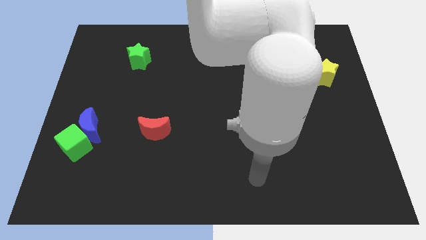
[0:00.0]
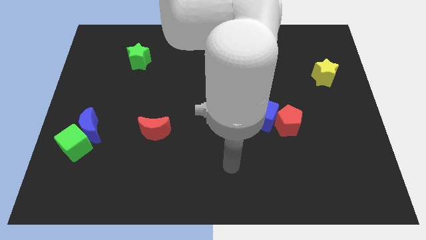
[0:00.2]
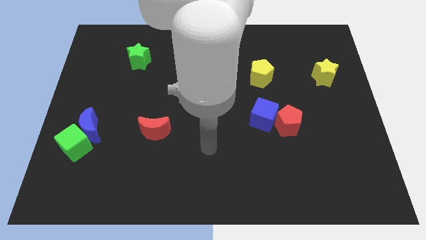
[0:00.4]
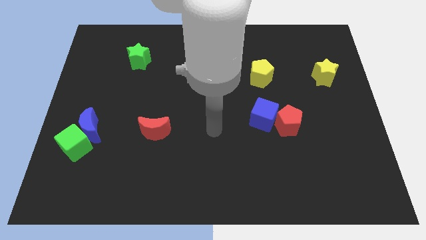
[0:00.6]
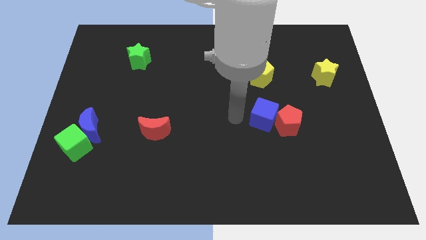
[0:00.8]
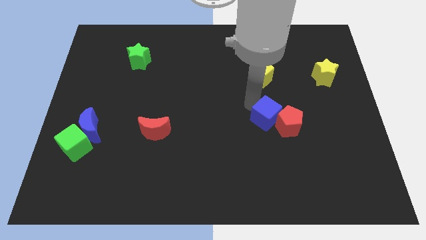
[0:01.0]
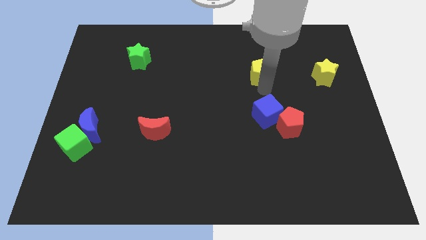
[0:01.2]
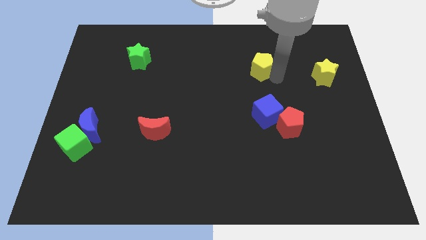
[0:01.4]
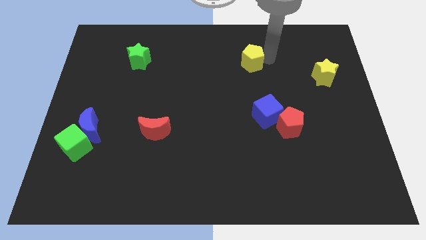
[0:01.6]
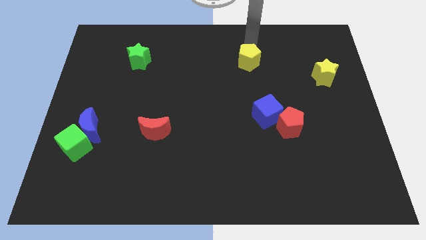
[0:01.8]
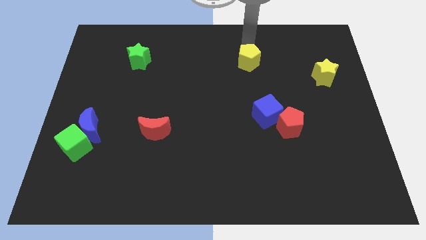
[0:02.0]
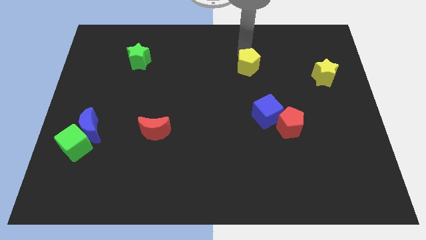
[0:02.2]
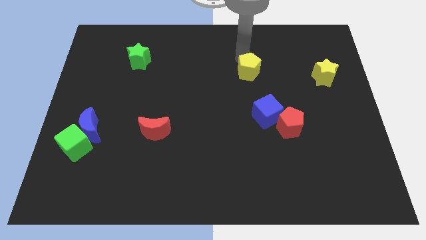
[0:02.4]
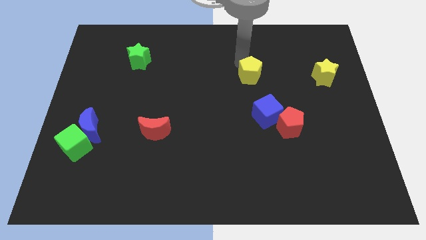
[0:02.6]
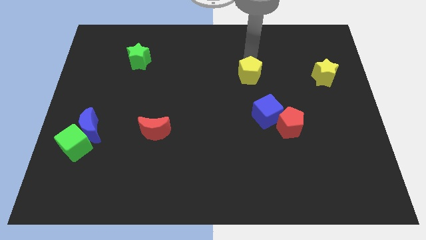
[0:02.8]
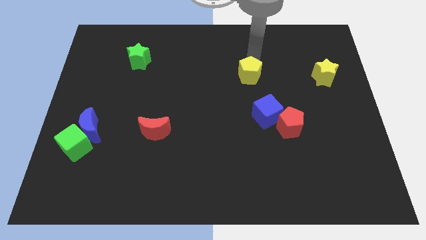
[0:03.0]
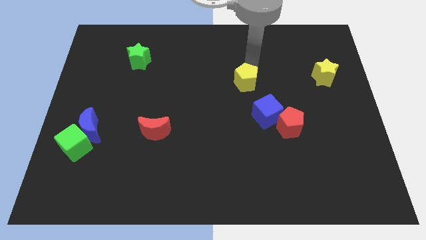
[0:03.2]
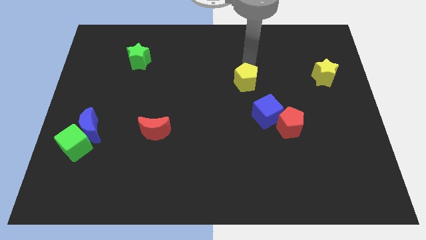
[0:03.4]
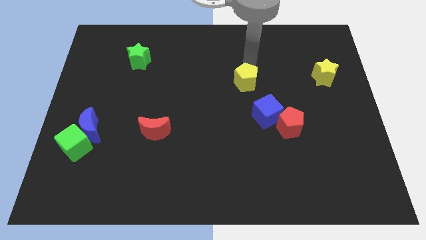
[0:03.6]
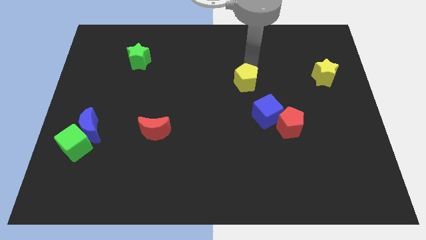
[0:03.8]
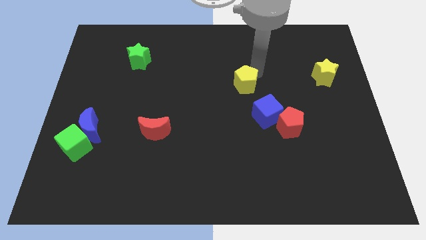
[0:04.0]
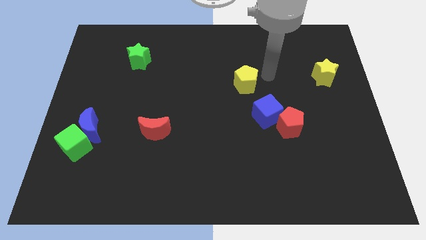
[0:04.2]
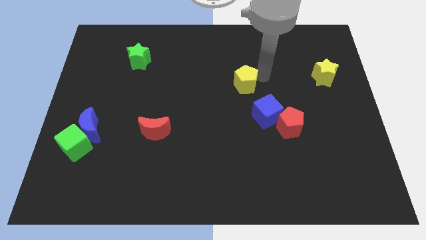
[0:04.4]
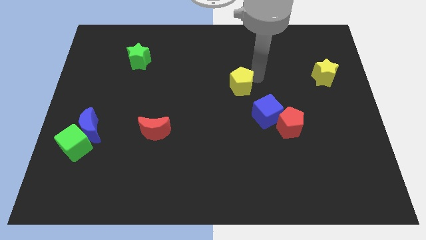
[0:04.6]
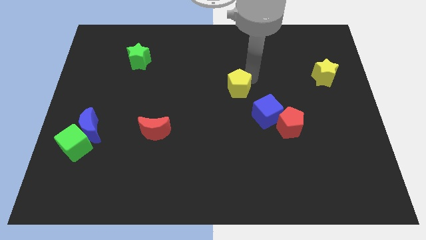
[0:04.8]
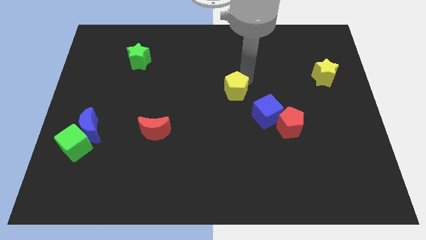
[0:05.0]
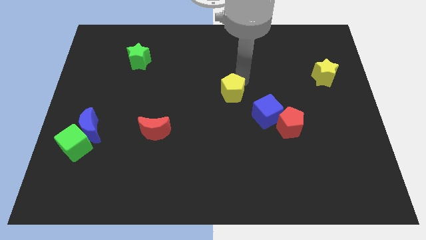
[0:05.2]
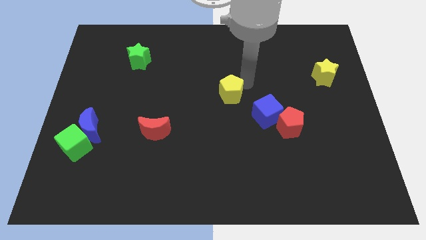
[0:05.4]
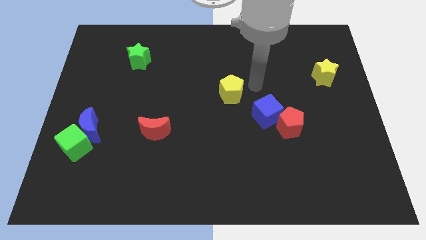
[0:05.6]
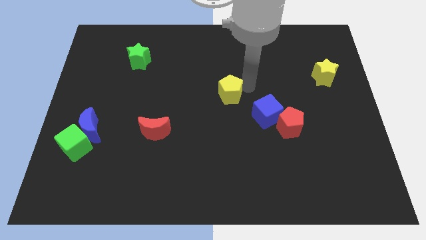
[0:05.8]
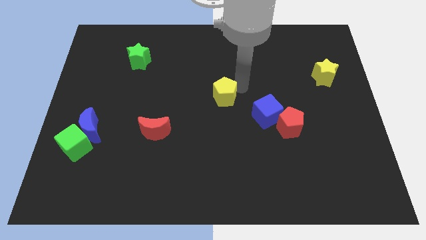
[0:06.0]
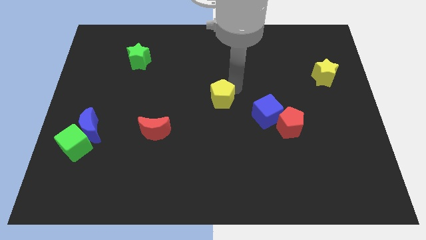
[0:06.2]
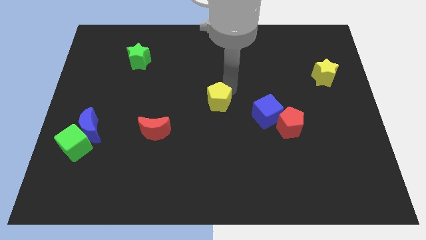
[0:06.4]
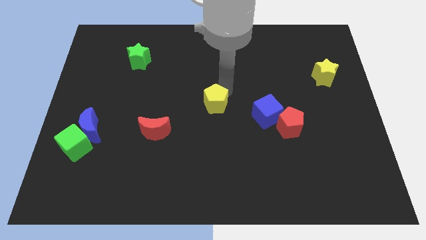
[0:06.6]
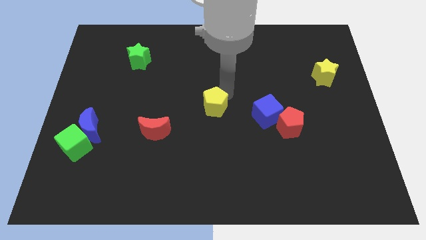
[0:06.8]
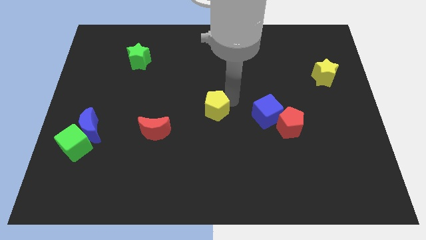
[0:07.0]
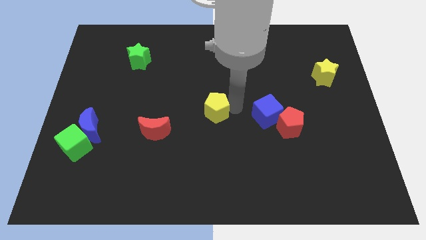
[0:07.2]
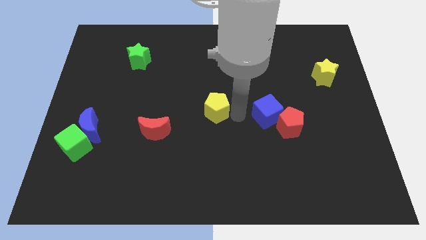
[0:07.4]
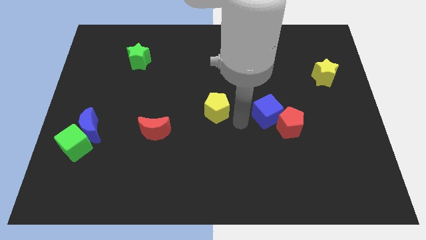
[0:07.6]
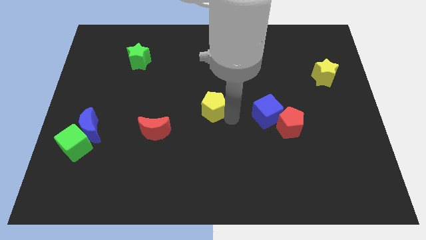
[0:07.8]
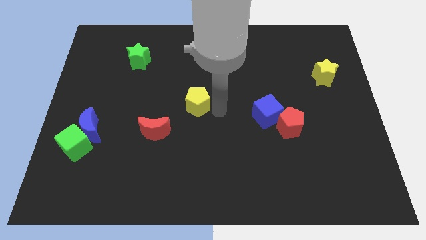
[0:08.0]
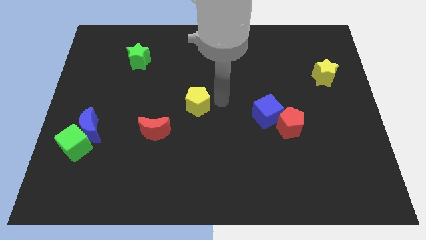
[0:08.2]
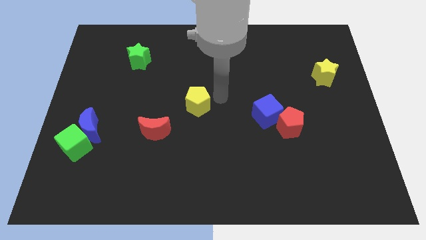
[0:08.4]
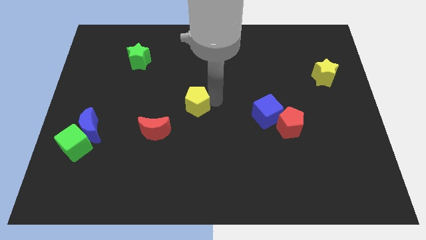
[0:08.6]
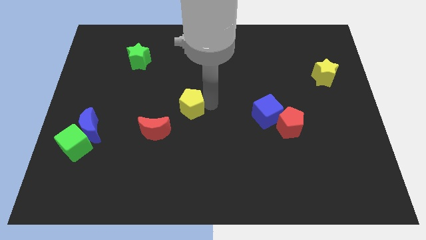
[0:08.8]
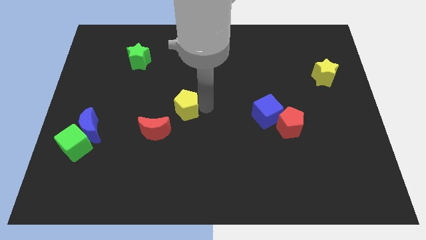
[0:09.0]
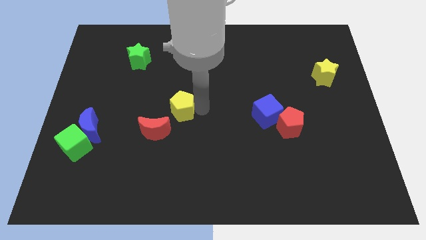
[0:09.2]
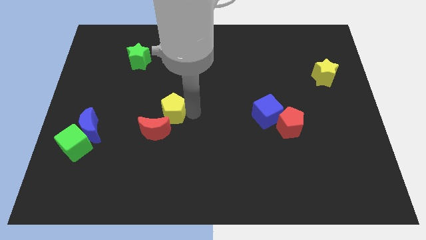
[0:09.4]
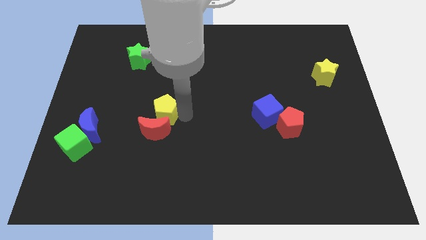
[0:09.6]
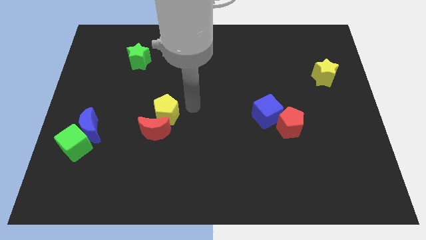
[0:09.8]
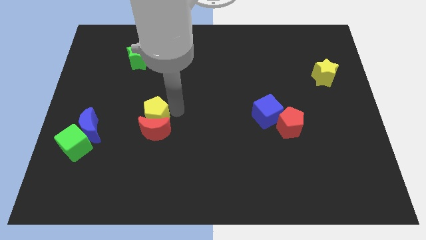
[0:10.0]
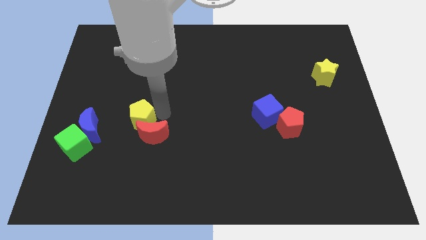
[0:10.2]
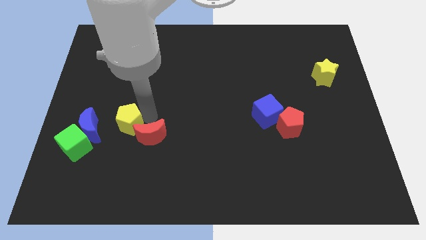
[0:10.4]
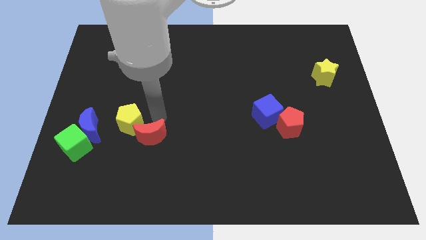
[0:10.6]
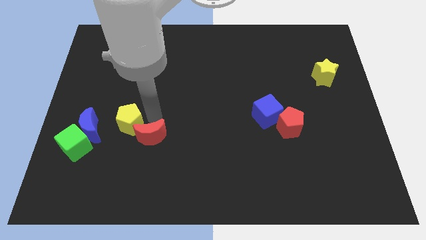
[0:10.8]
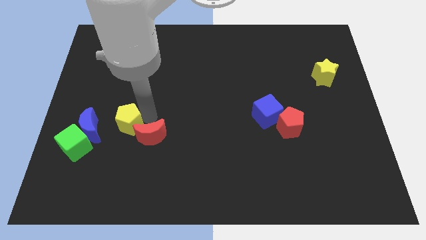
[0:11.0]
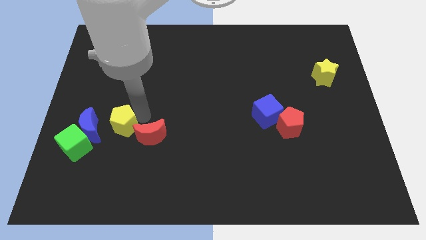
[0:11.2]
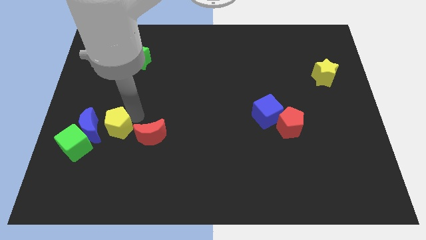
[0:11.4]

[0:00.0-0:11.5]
slide the yellow pentagon to the blue moon

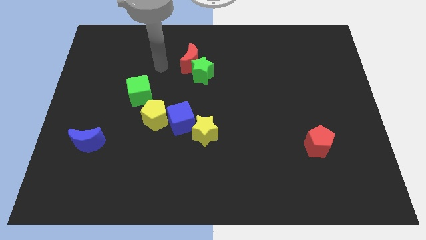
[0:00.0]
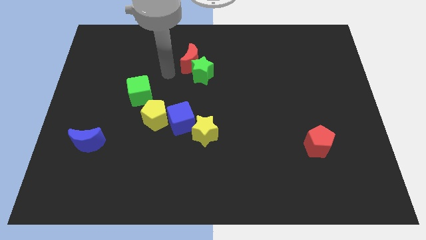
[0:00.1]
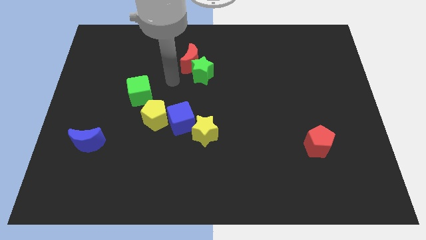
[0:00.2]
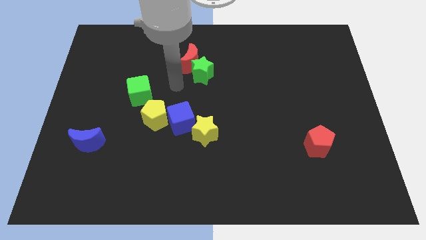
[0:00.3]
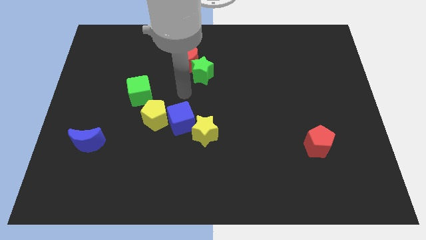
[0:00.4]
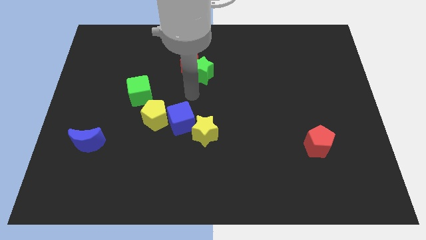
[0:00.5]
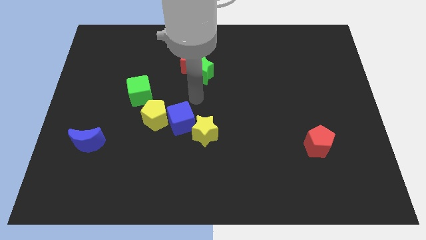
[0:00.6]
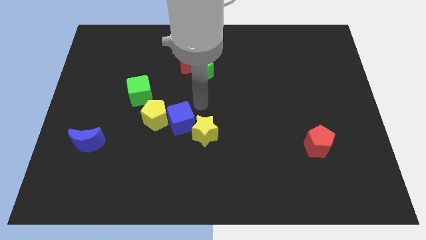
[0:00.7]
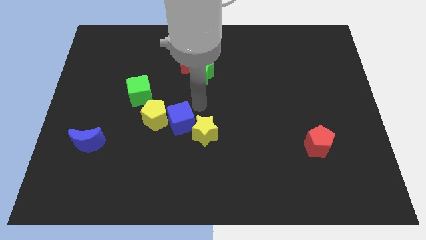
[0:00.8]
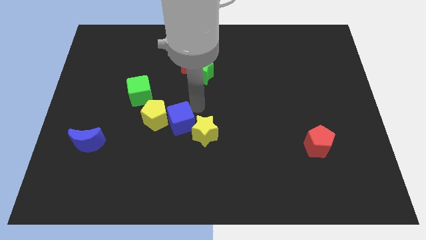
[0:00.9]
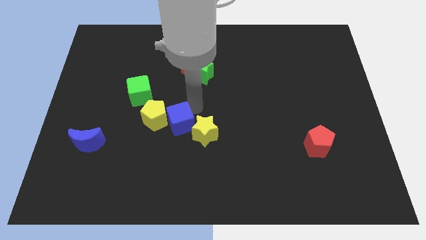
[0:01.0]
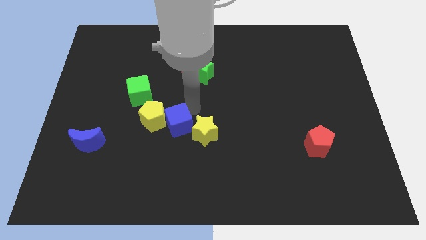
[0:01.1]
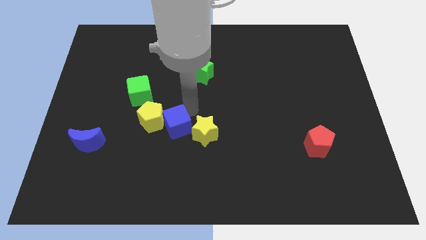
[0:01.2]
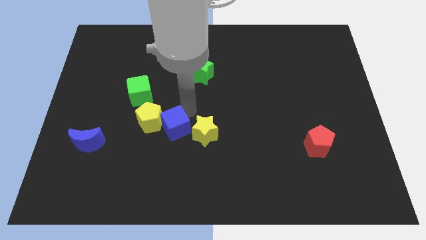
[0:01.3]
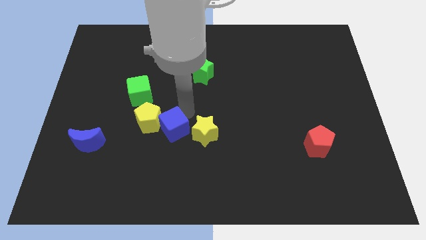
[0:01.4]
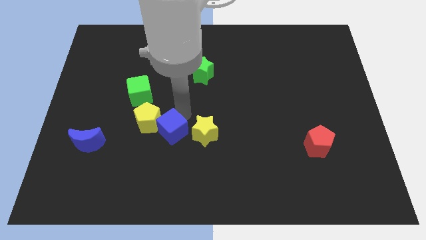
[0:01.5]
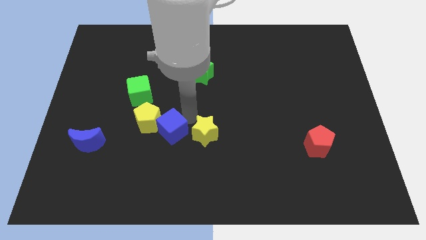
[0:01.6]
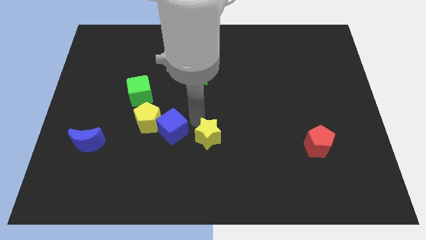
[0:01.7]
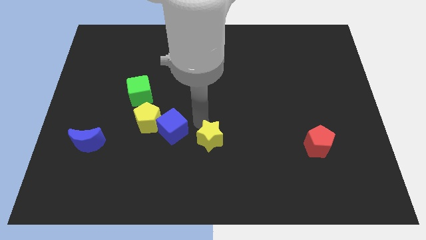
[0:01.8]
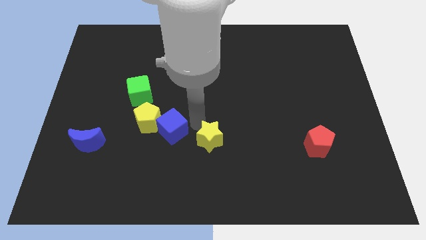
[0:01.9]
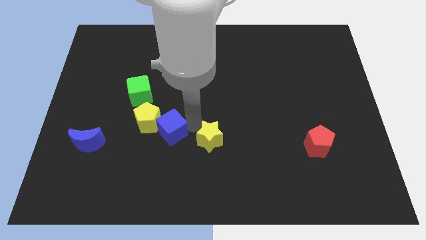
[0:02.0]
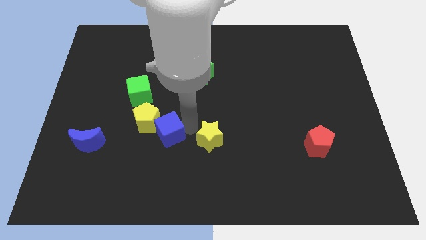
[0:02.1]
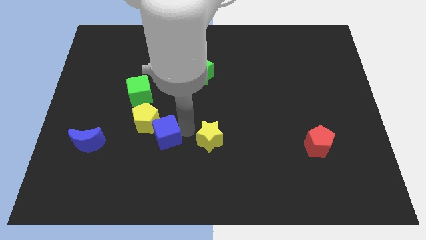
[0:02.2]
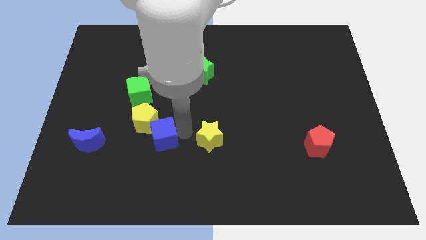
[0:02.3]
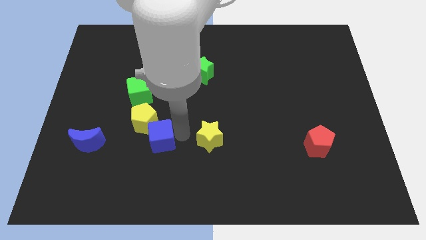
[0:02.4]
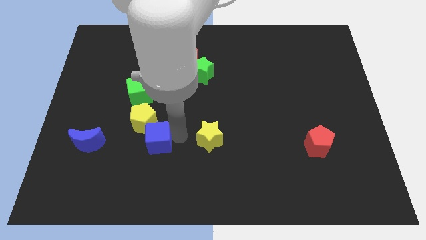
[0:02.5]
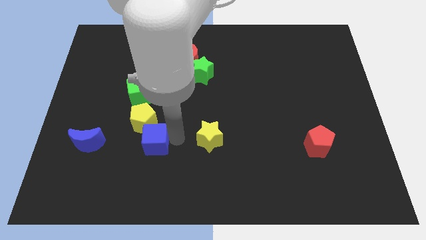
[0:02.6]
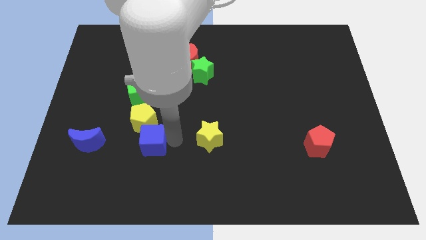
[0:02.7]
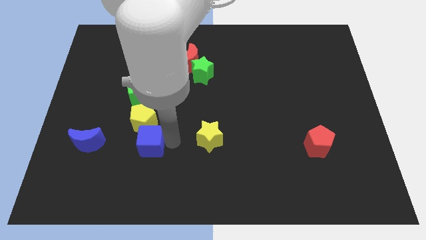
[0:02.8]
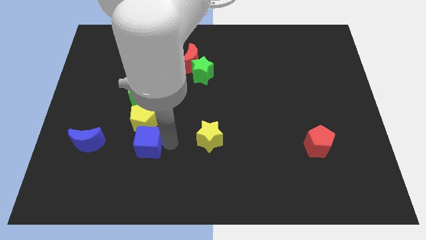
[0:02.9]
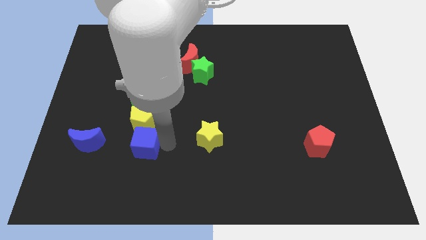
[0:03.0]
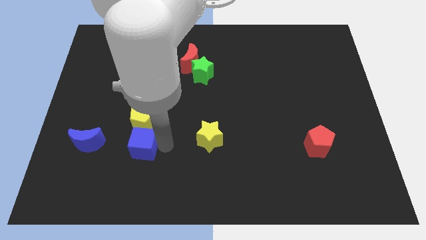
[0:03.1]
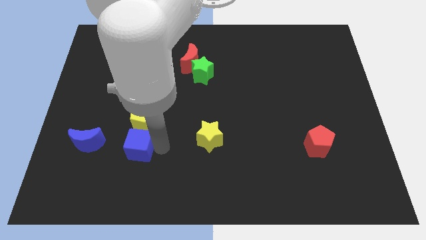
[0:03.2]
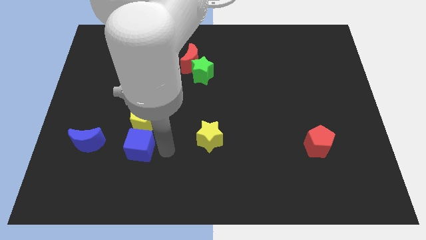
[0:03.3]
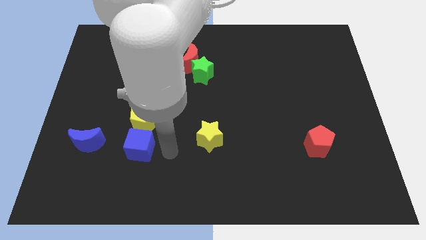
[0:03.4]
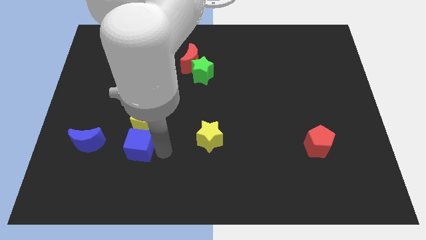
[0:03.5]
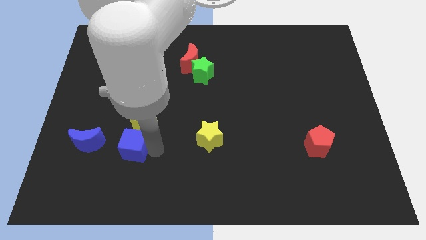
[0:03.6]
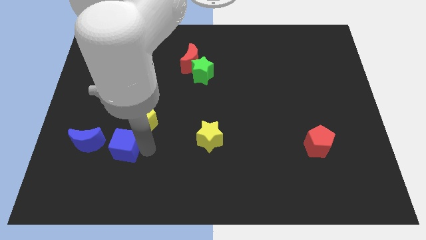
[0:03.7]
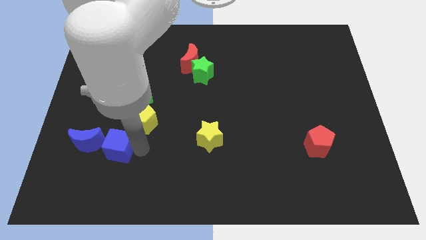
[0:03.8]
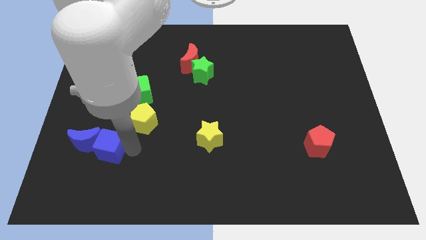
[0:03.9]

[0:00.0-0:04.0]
slide the blue cube close to the blue moon
